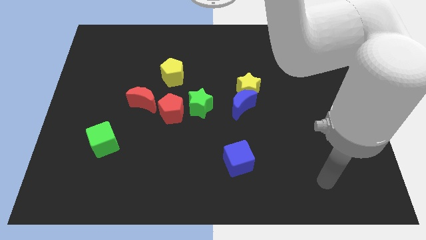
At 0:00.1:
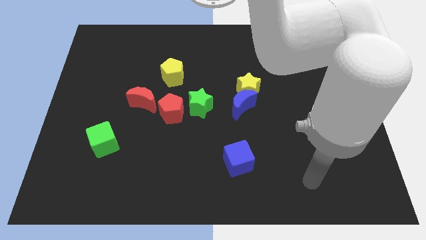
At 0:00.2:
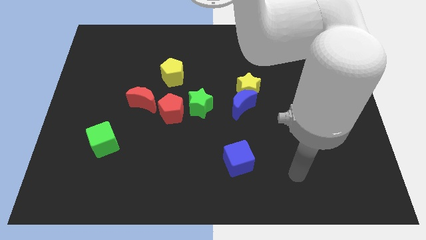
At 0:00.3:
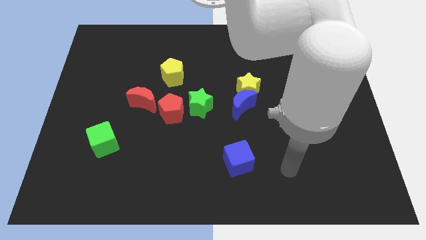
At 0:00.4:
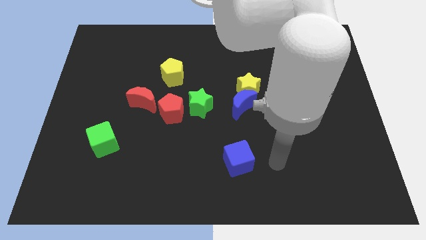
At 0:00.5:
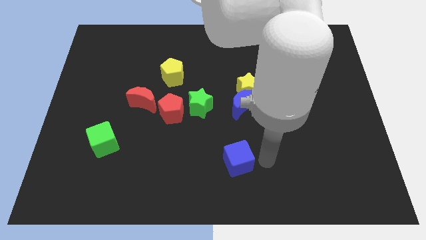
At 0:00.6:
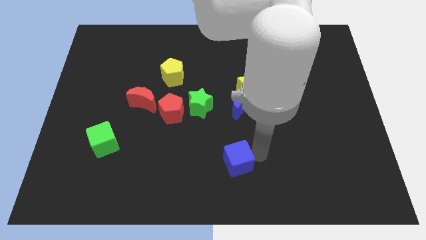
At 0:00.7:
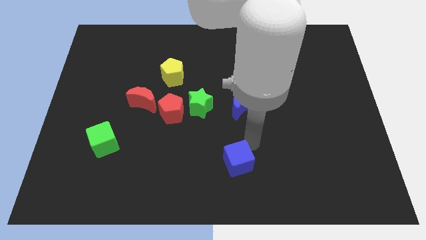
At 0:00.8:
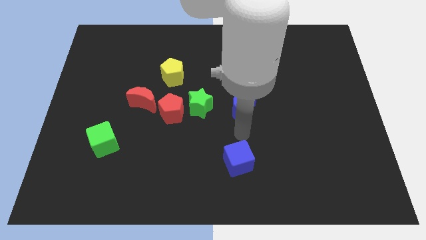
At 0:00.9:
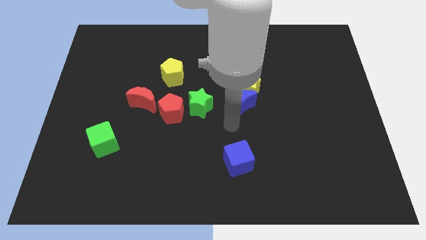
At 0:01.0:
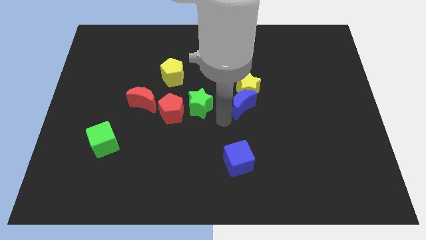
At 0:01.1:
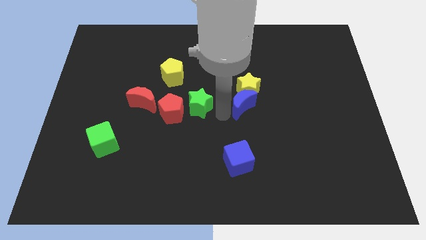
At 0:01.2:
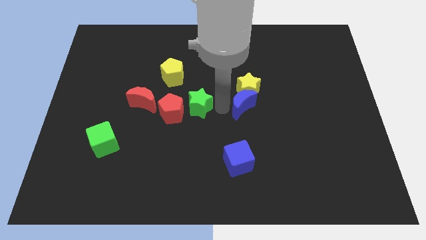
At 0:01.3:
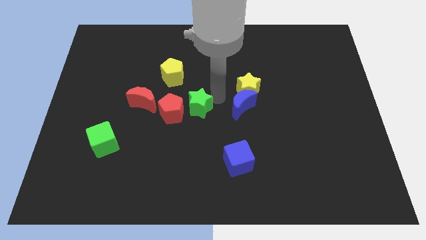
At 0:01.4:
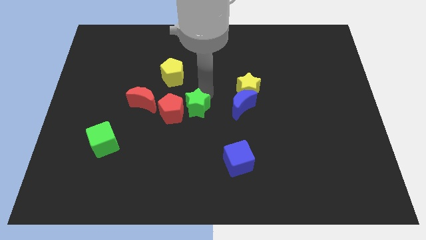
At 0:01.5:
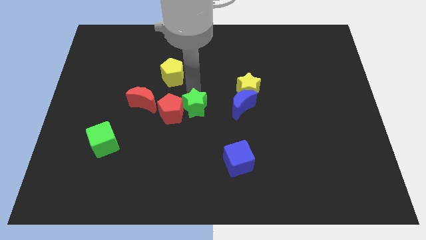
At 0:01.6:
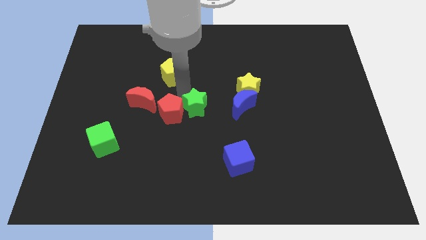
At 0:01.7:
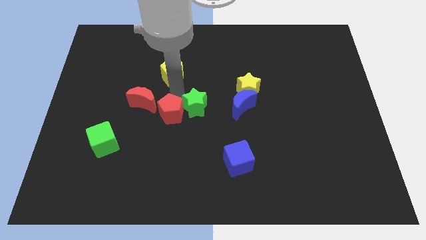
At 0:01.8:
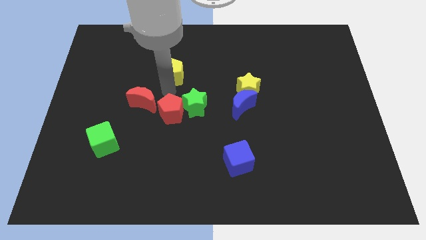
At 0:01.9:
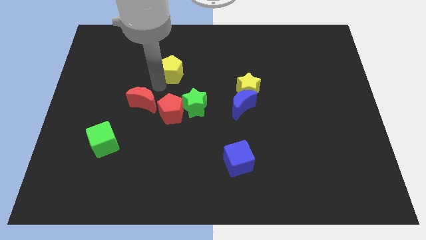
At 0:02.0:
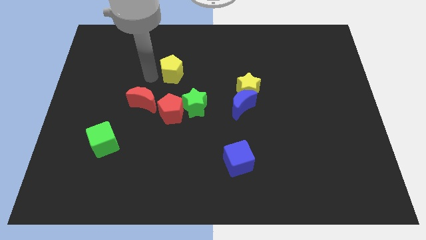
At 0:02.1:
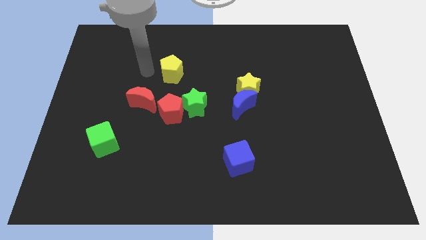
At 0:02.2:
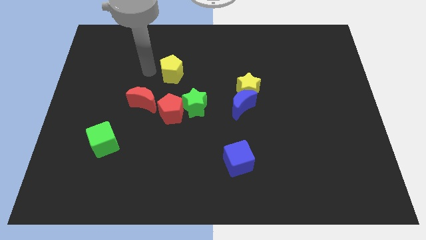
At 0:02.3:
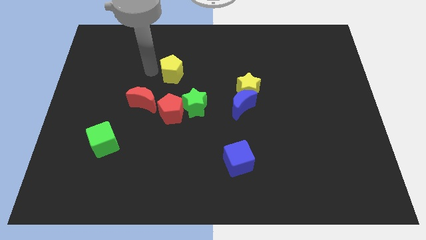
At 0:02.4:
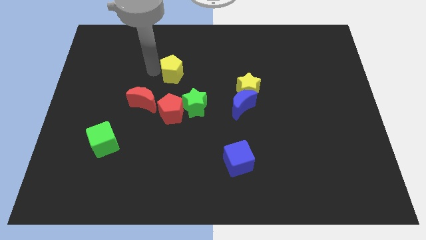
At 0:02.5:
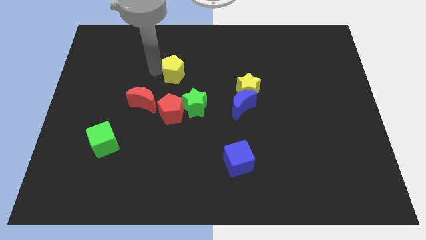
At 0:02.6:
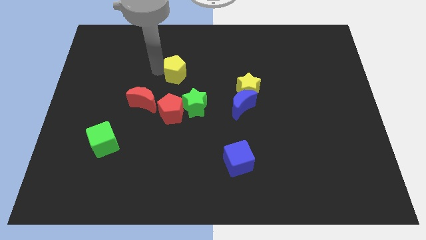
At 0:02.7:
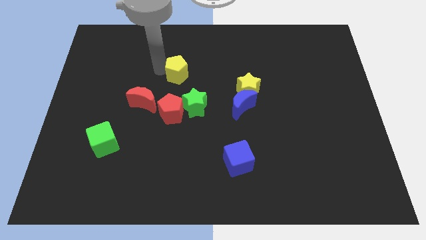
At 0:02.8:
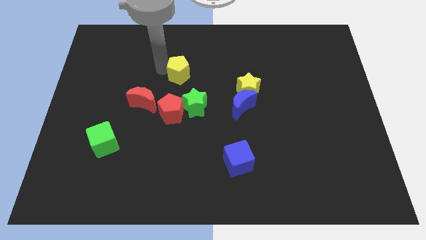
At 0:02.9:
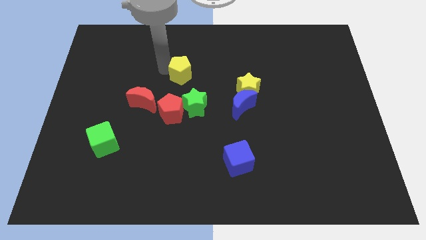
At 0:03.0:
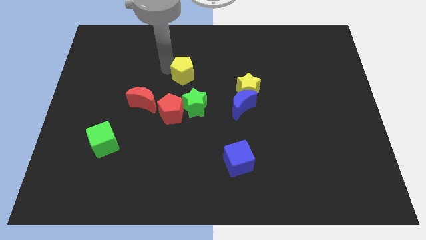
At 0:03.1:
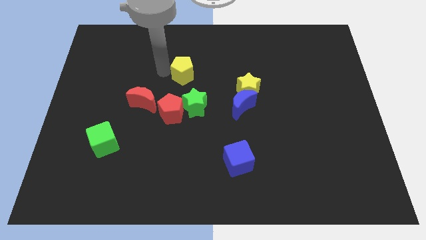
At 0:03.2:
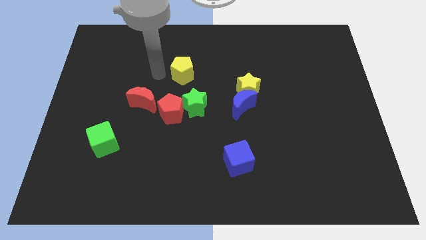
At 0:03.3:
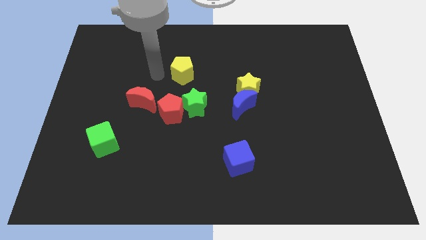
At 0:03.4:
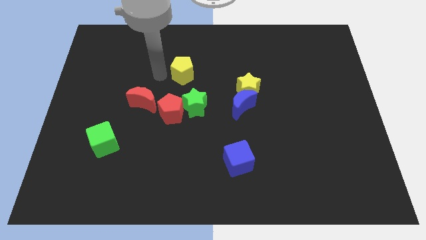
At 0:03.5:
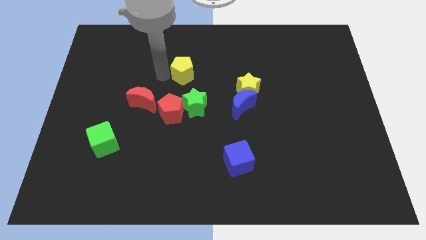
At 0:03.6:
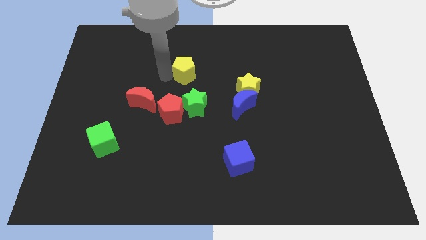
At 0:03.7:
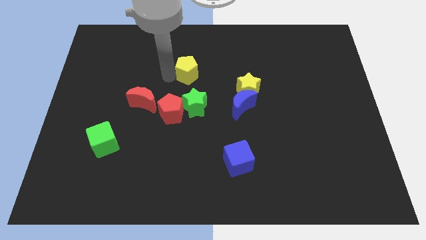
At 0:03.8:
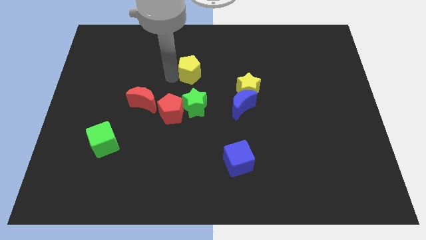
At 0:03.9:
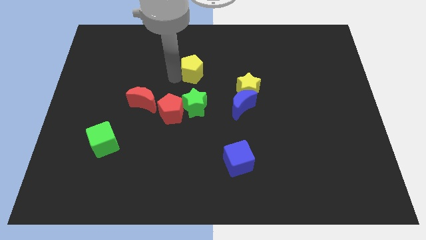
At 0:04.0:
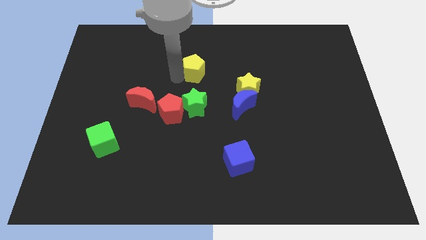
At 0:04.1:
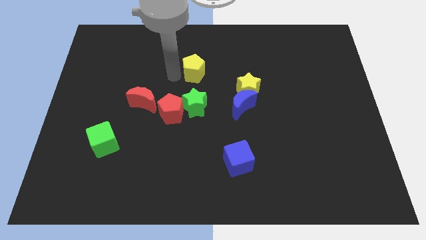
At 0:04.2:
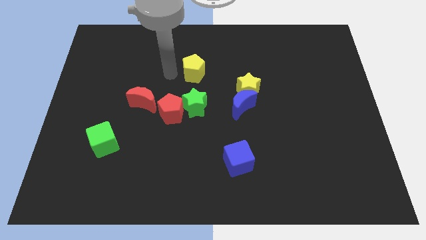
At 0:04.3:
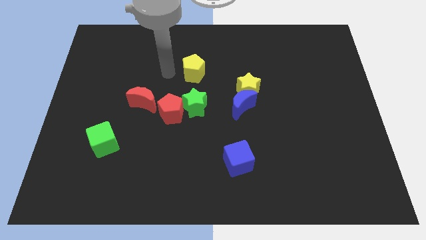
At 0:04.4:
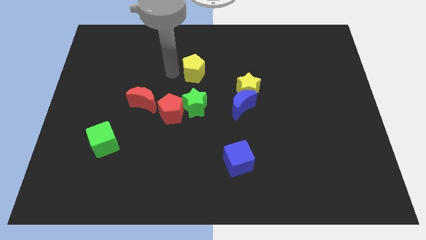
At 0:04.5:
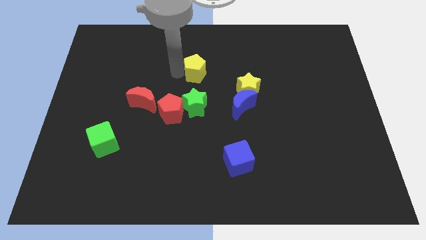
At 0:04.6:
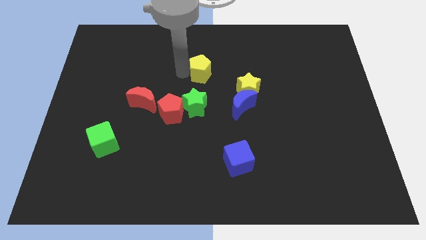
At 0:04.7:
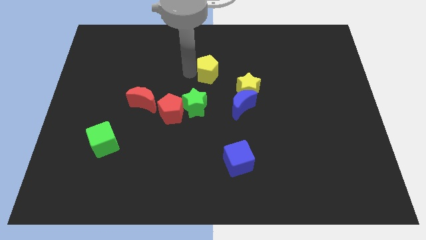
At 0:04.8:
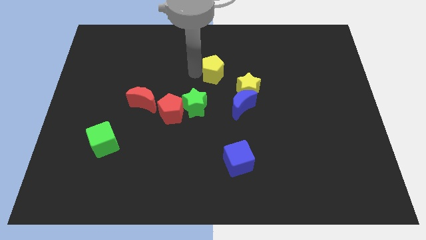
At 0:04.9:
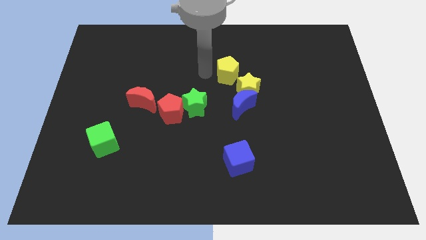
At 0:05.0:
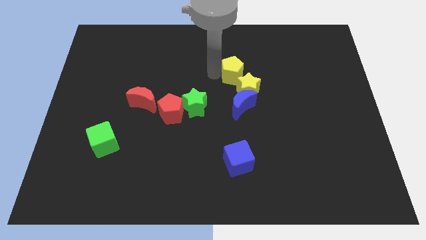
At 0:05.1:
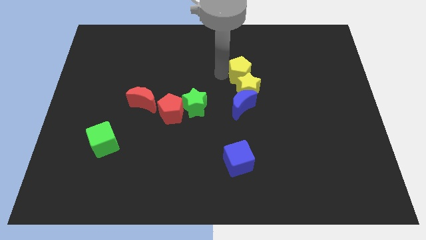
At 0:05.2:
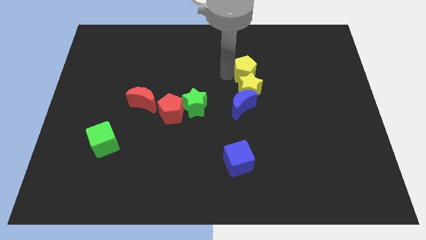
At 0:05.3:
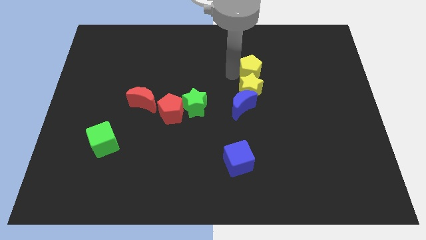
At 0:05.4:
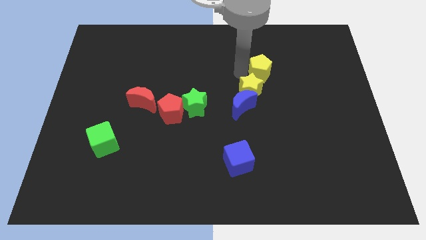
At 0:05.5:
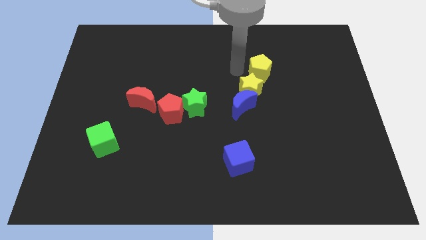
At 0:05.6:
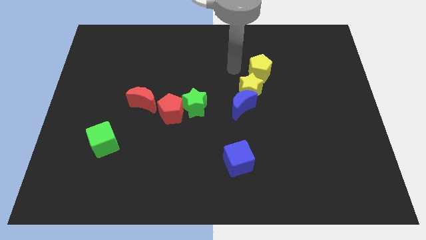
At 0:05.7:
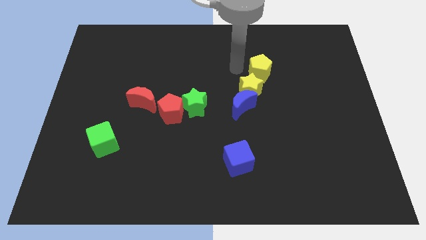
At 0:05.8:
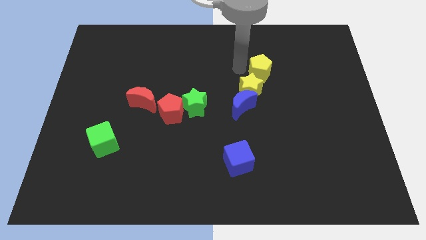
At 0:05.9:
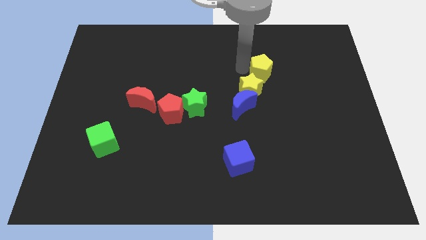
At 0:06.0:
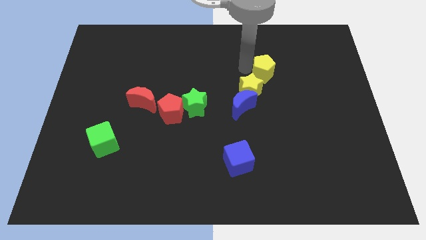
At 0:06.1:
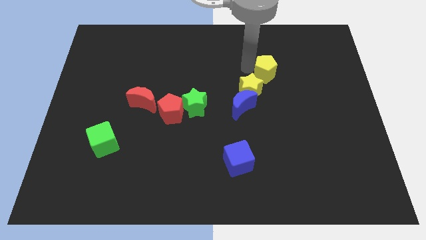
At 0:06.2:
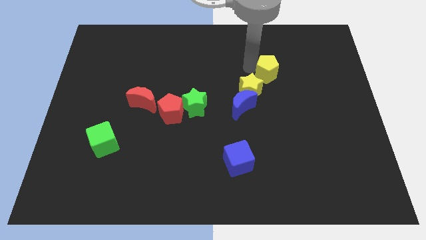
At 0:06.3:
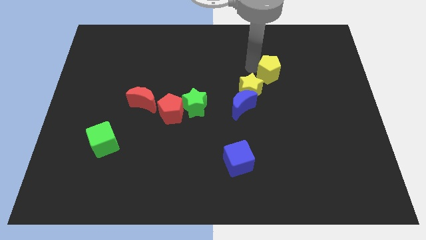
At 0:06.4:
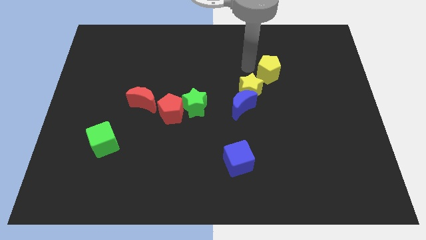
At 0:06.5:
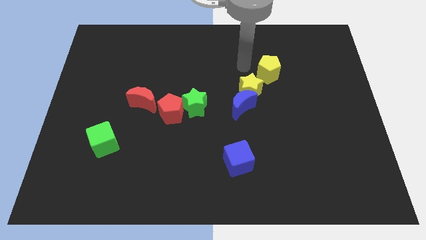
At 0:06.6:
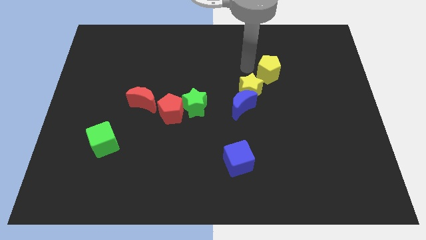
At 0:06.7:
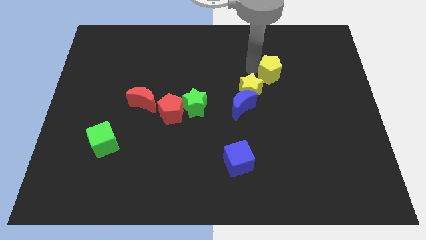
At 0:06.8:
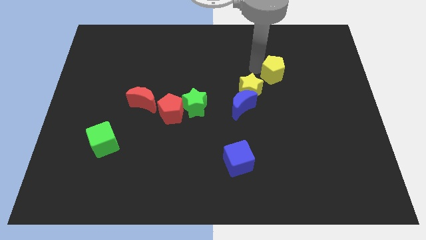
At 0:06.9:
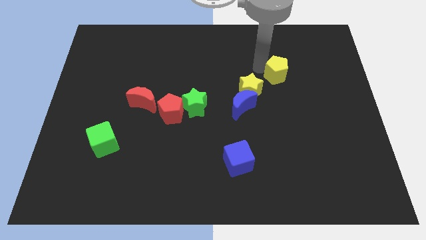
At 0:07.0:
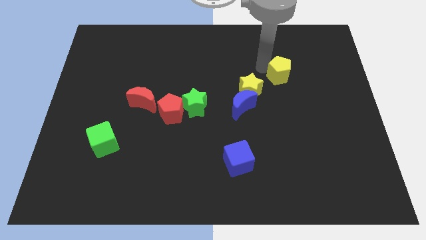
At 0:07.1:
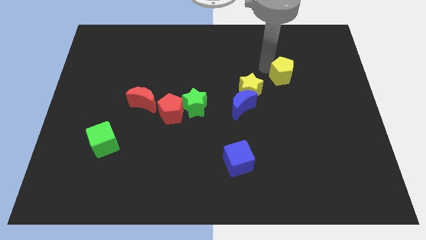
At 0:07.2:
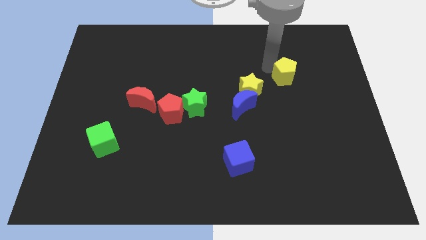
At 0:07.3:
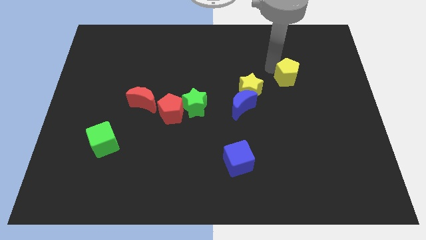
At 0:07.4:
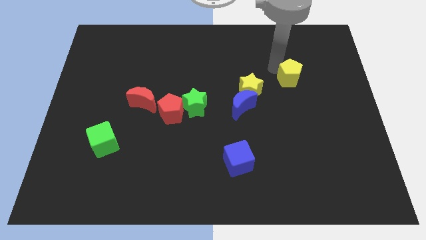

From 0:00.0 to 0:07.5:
move the yellow pentagon right of the yellow star
